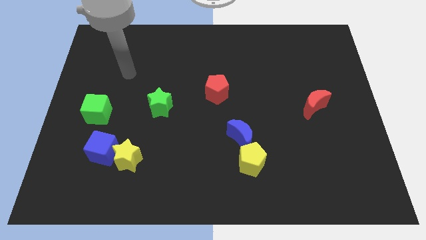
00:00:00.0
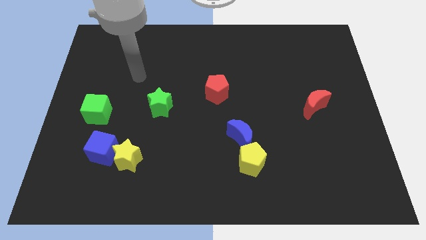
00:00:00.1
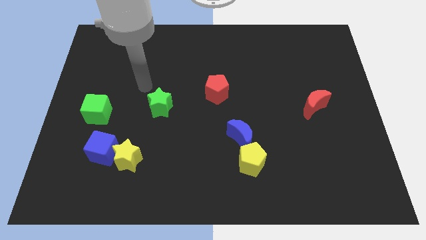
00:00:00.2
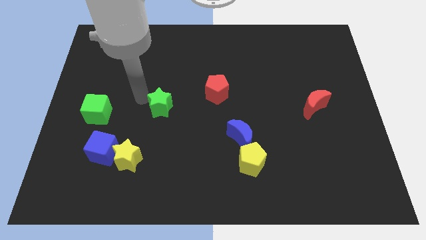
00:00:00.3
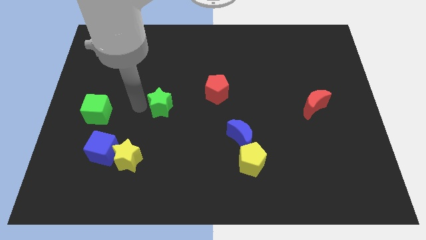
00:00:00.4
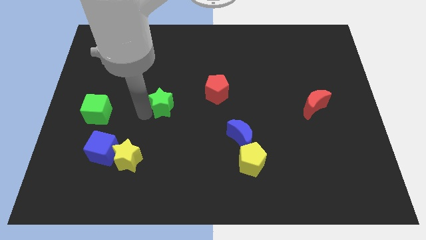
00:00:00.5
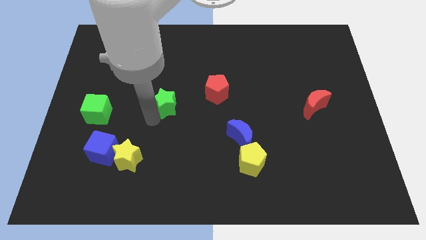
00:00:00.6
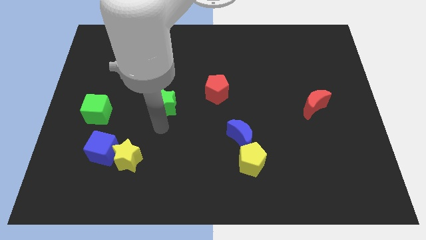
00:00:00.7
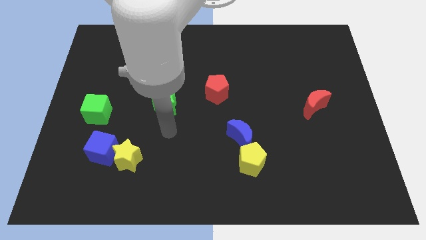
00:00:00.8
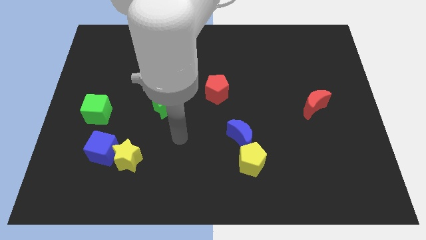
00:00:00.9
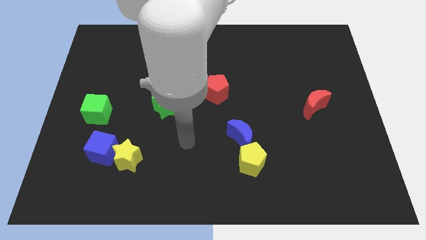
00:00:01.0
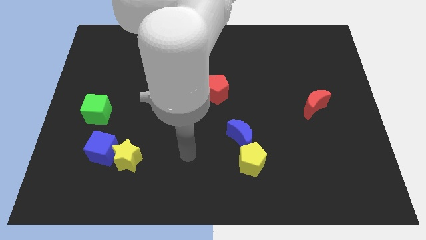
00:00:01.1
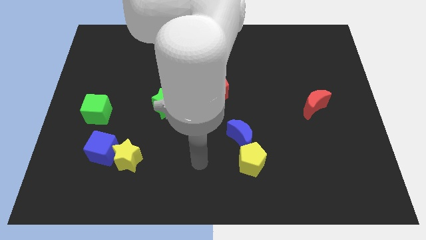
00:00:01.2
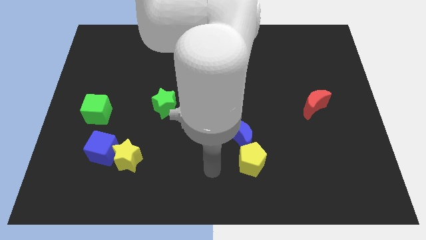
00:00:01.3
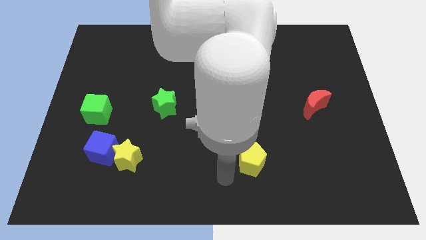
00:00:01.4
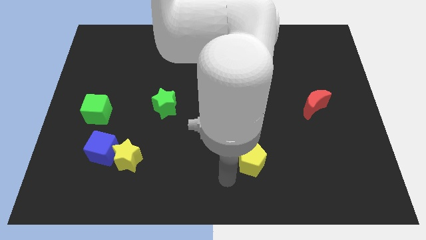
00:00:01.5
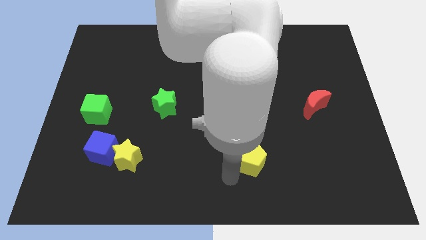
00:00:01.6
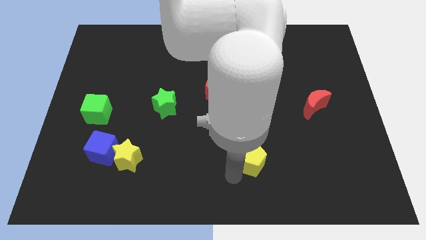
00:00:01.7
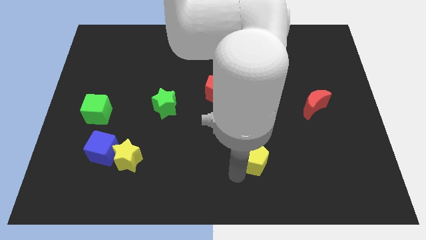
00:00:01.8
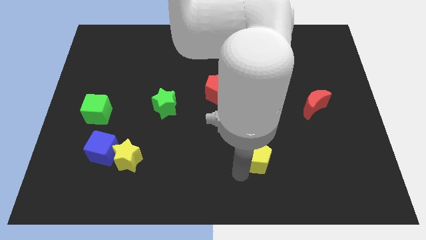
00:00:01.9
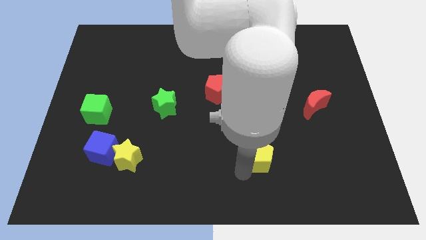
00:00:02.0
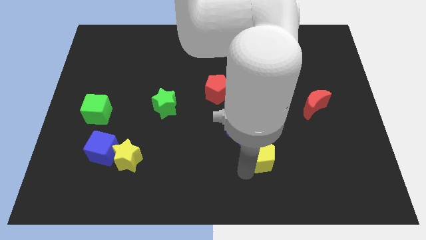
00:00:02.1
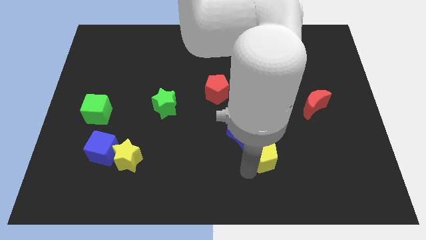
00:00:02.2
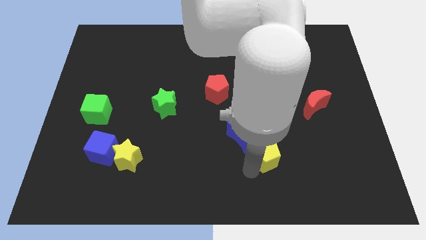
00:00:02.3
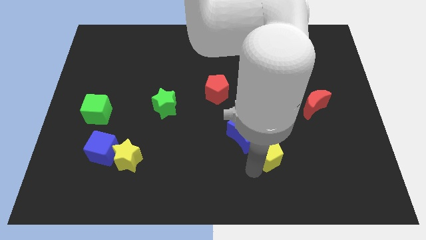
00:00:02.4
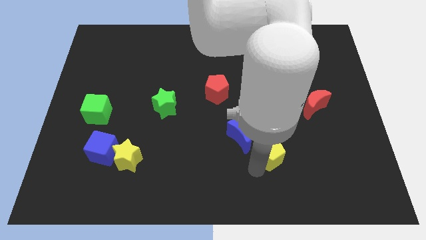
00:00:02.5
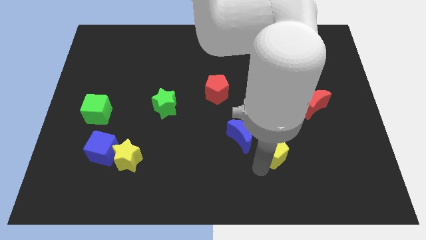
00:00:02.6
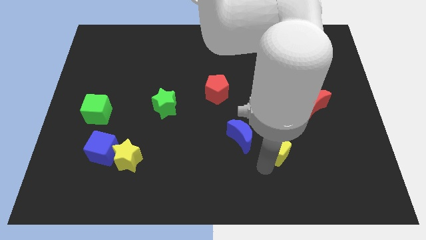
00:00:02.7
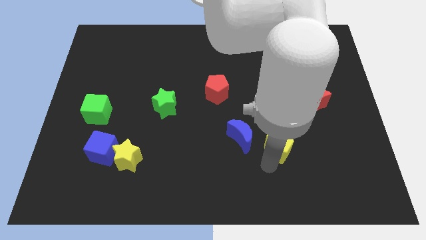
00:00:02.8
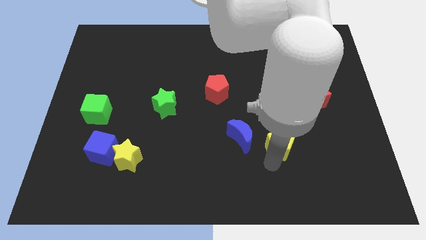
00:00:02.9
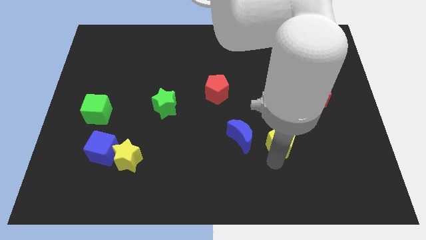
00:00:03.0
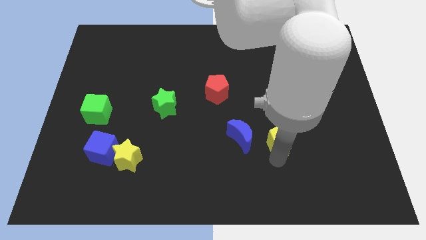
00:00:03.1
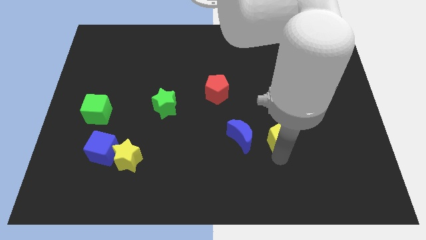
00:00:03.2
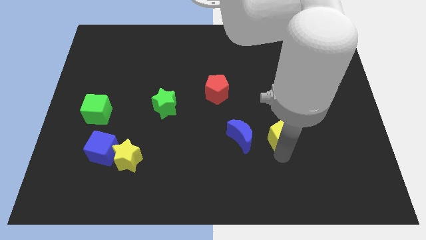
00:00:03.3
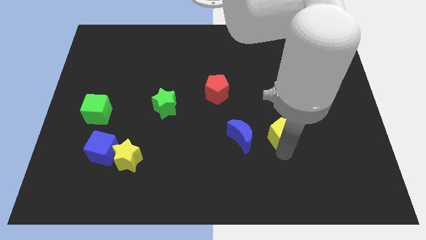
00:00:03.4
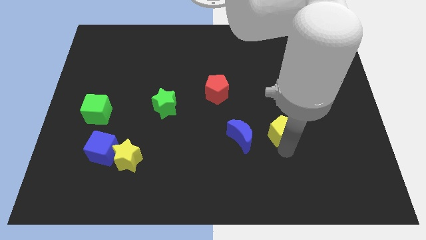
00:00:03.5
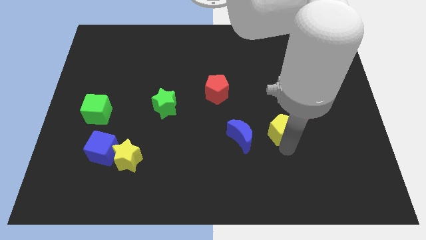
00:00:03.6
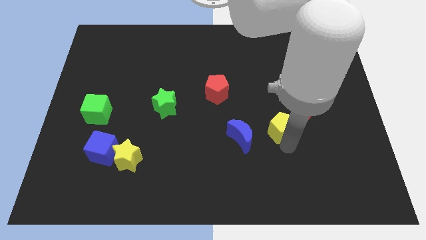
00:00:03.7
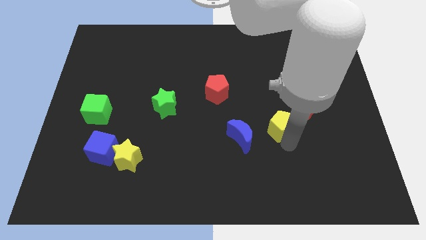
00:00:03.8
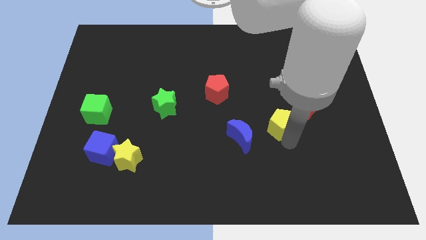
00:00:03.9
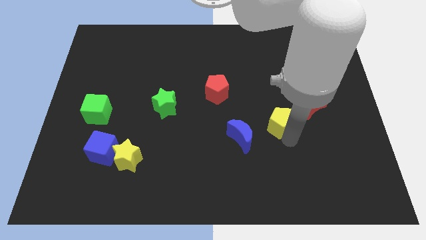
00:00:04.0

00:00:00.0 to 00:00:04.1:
push the yellow pentagon up somewhat

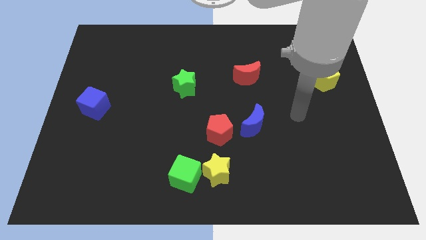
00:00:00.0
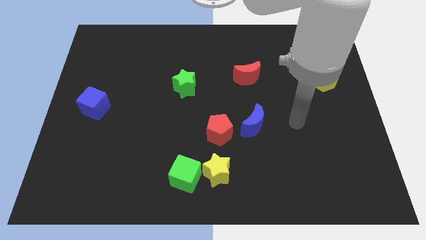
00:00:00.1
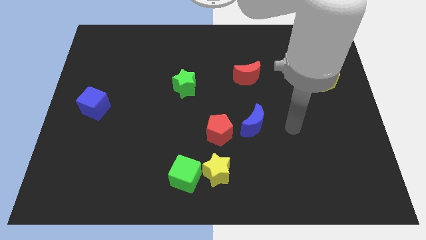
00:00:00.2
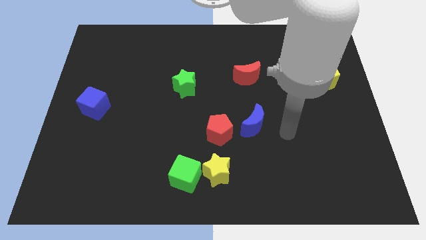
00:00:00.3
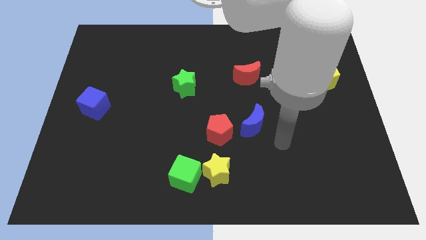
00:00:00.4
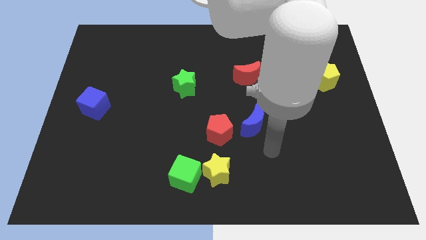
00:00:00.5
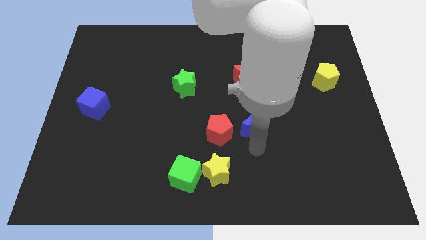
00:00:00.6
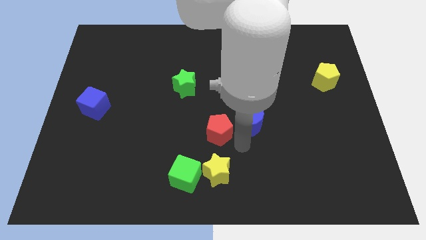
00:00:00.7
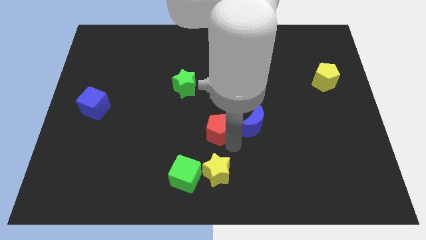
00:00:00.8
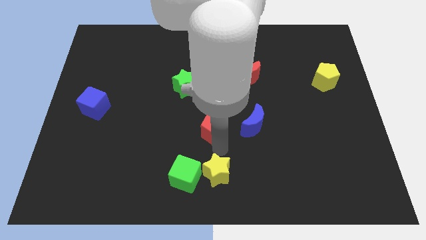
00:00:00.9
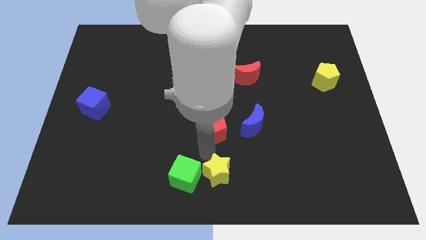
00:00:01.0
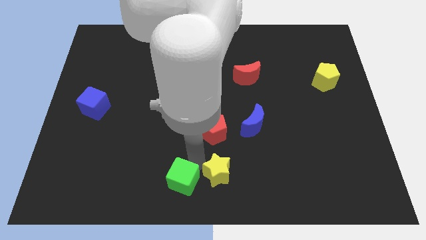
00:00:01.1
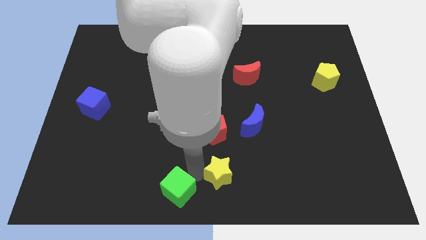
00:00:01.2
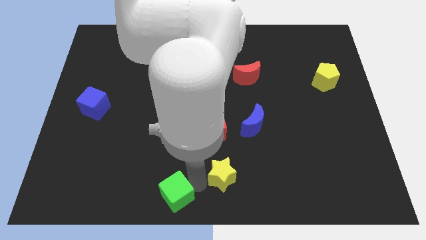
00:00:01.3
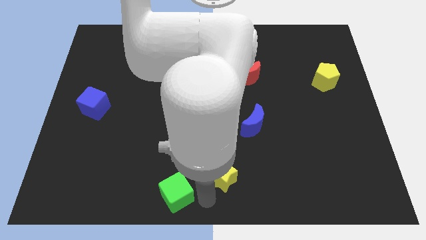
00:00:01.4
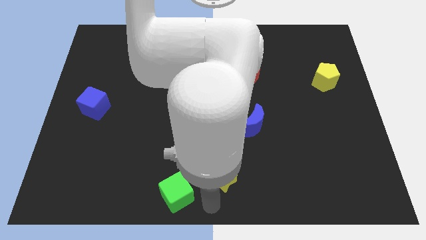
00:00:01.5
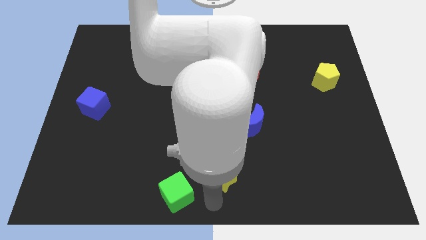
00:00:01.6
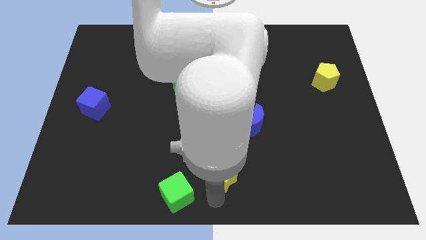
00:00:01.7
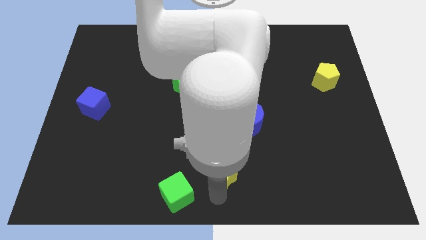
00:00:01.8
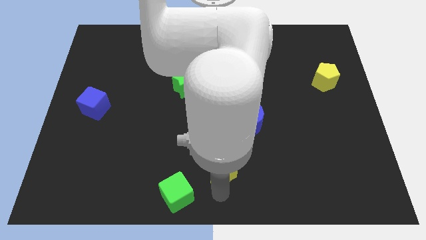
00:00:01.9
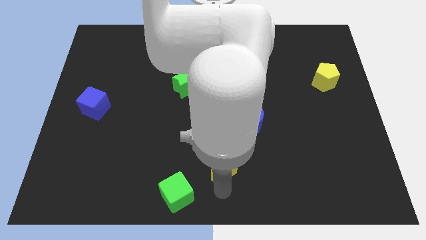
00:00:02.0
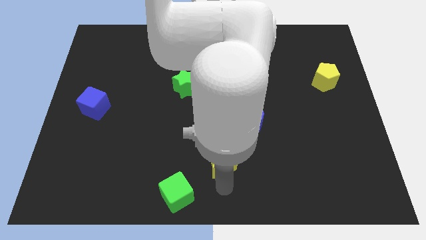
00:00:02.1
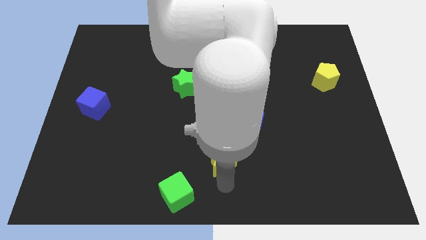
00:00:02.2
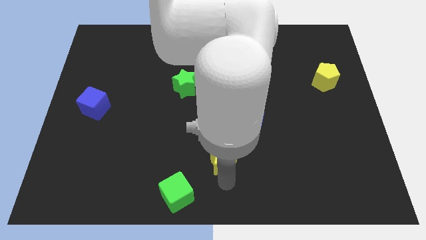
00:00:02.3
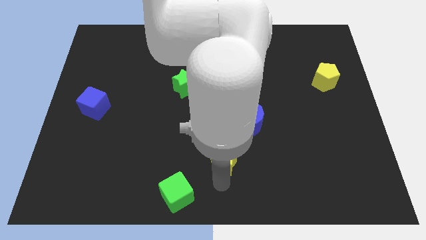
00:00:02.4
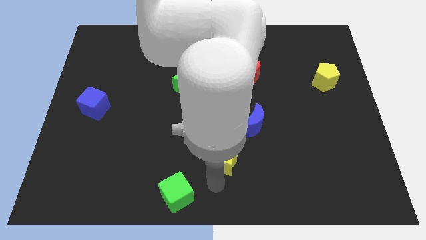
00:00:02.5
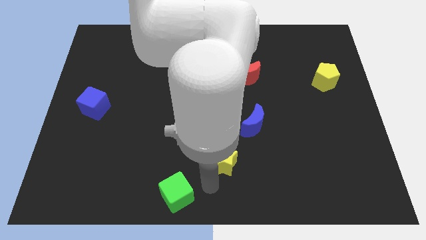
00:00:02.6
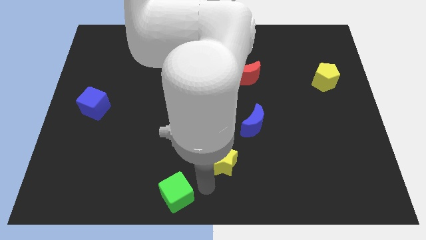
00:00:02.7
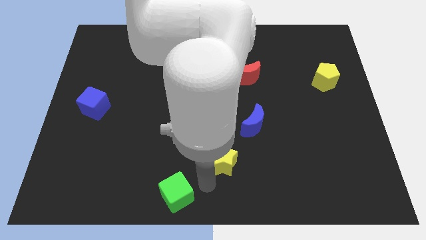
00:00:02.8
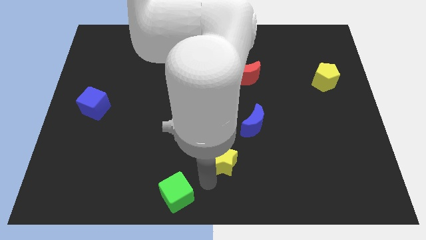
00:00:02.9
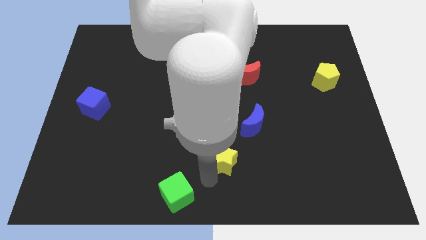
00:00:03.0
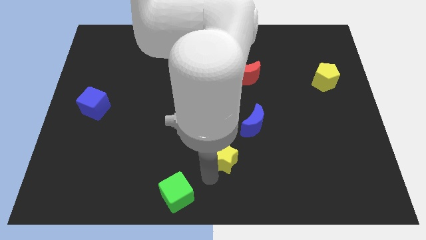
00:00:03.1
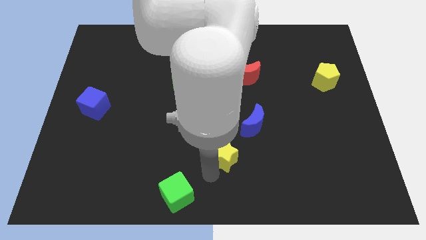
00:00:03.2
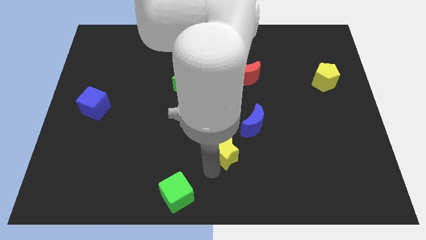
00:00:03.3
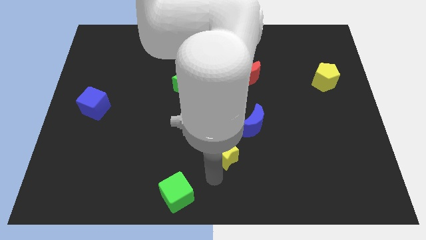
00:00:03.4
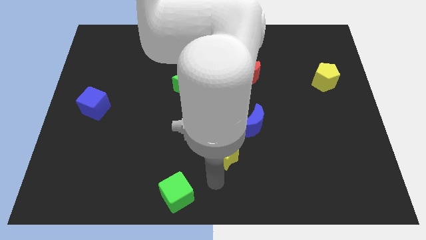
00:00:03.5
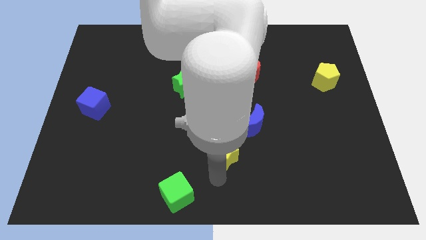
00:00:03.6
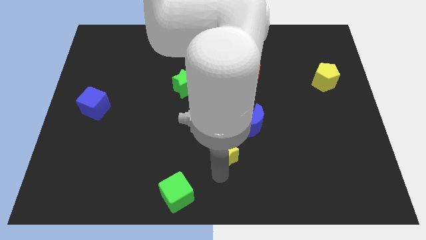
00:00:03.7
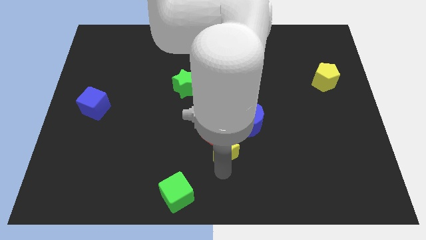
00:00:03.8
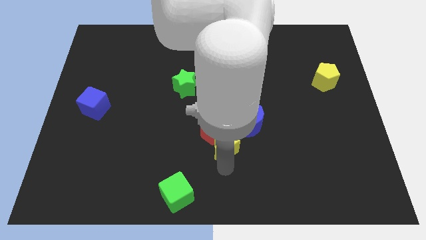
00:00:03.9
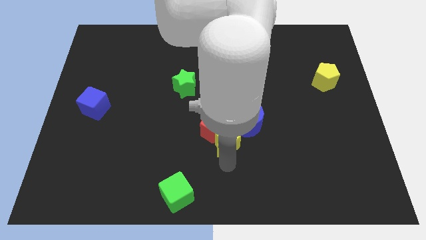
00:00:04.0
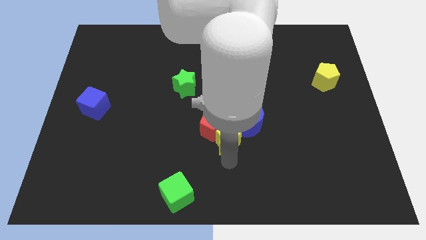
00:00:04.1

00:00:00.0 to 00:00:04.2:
push the yellow star a little bit upwards
